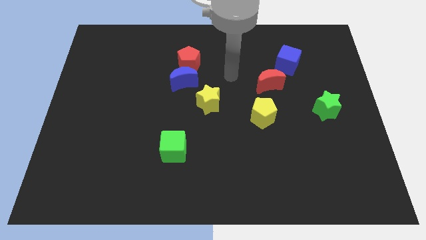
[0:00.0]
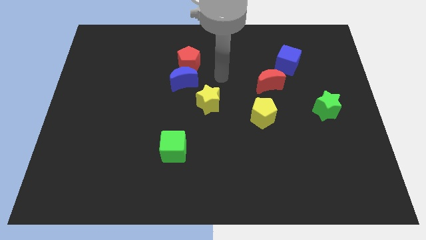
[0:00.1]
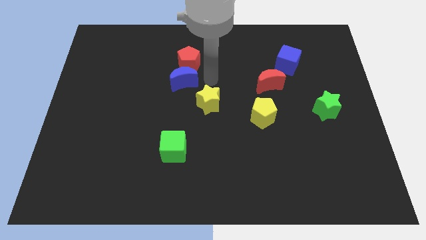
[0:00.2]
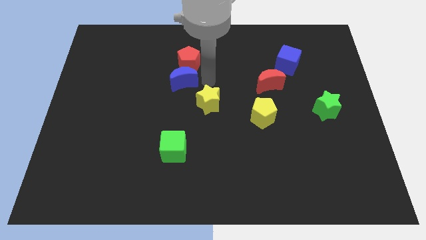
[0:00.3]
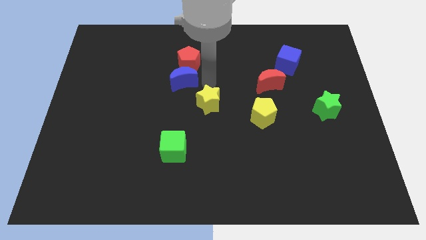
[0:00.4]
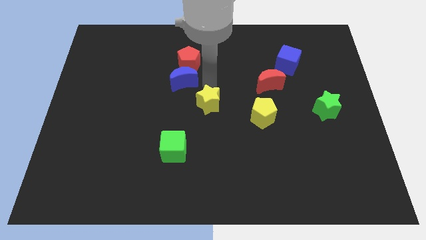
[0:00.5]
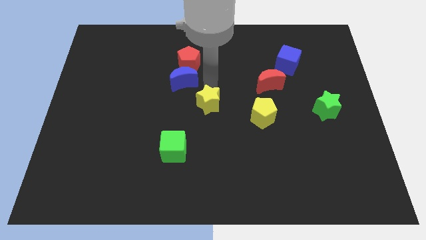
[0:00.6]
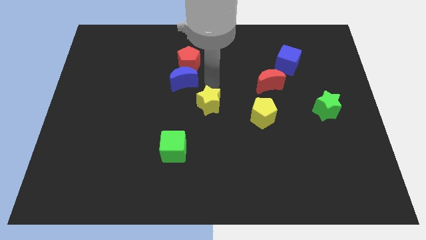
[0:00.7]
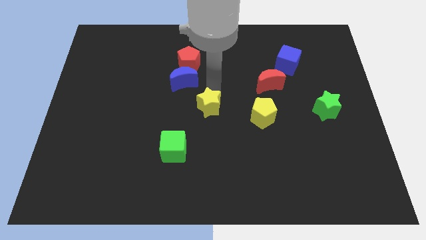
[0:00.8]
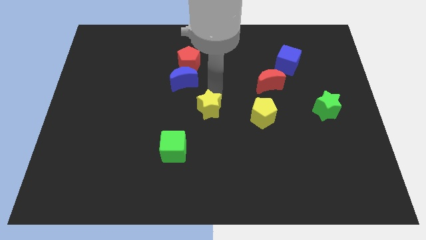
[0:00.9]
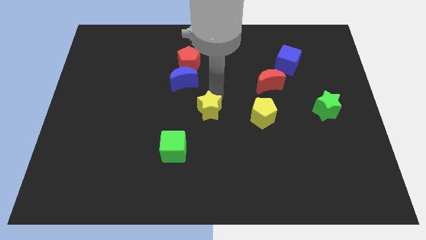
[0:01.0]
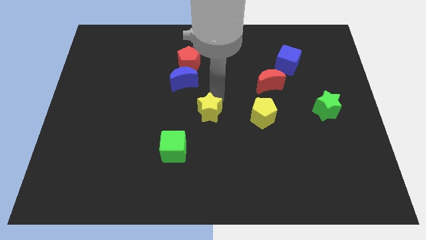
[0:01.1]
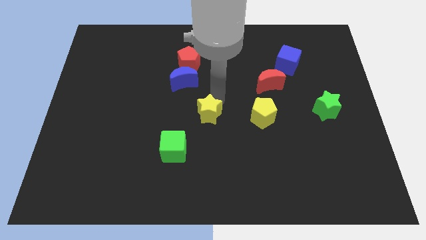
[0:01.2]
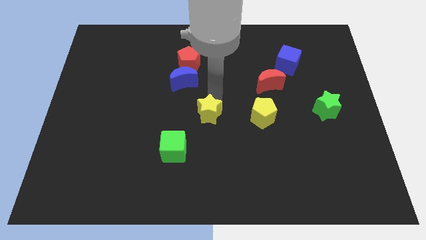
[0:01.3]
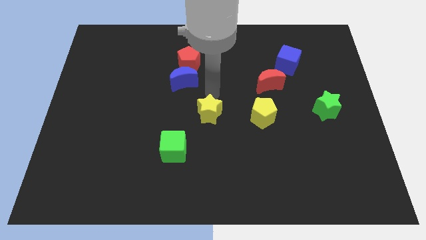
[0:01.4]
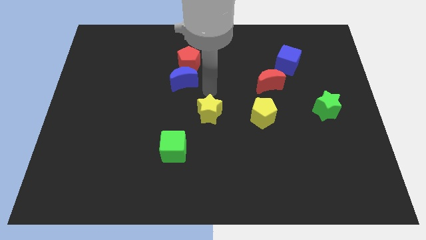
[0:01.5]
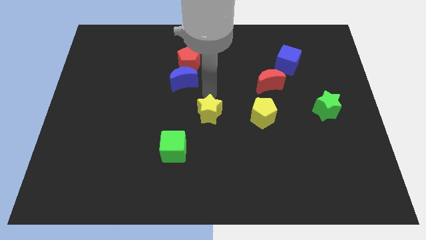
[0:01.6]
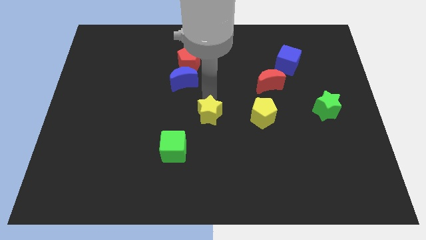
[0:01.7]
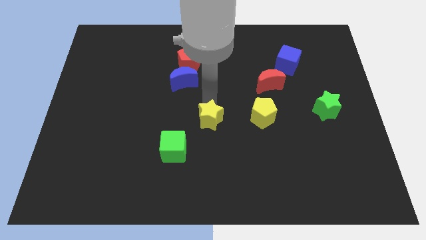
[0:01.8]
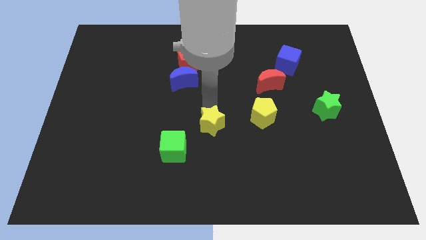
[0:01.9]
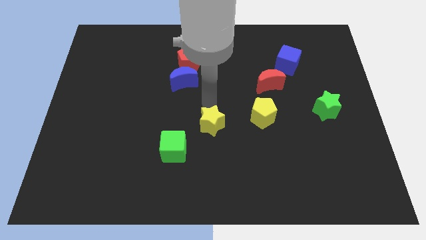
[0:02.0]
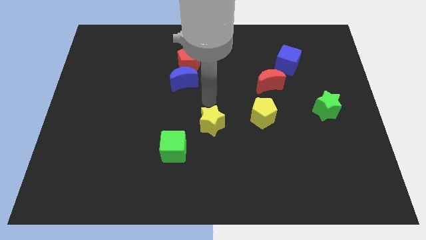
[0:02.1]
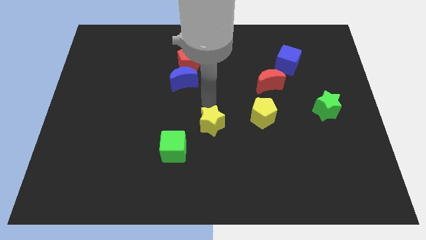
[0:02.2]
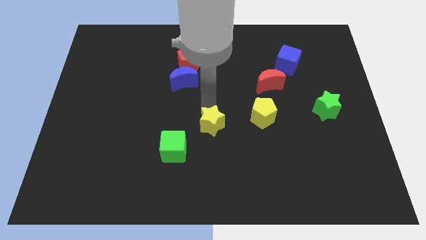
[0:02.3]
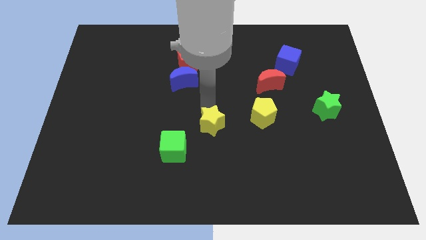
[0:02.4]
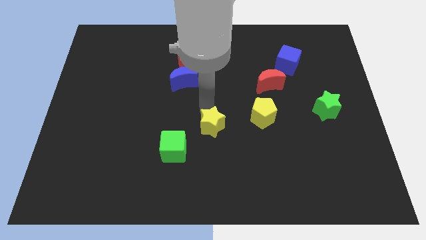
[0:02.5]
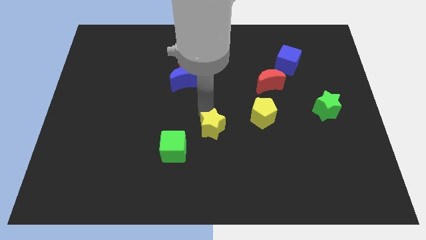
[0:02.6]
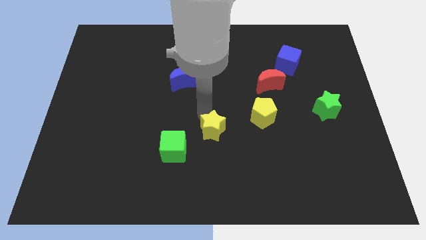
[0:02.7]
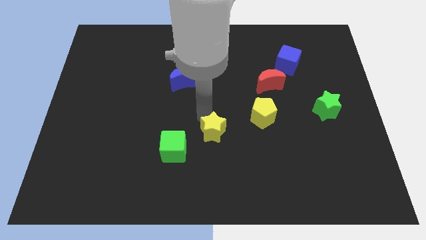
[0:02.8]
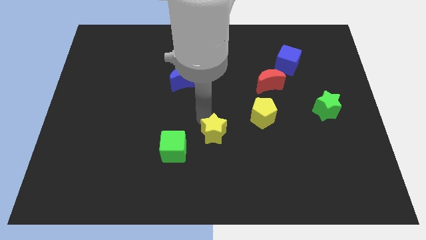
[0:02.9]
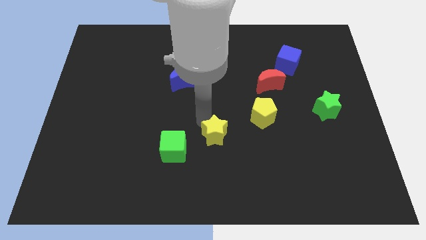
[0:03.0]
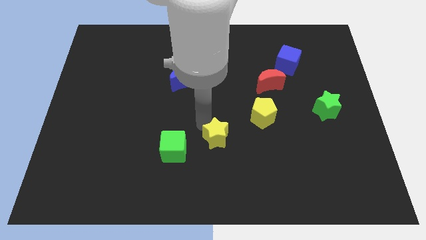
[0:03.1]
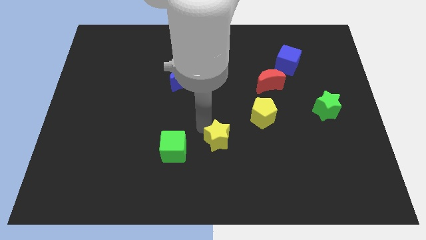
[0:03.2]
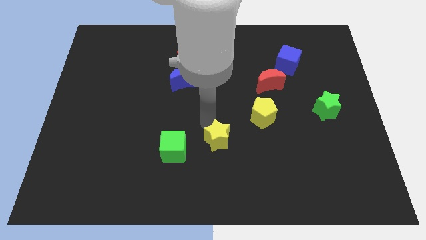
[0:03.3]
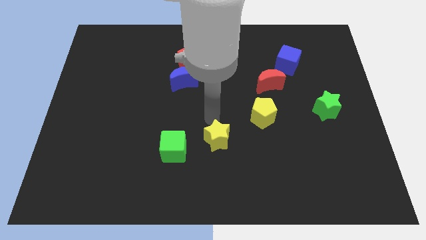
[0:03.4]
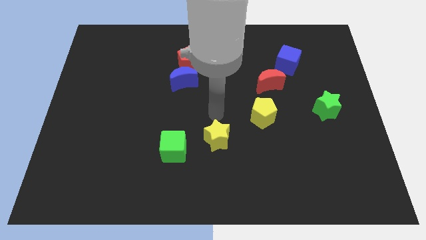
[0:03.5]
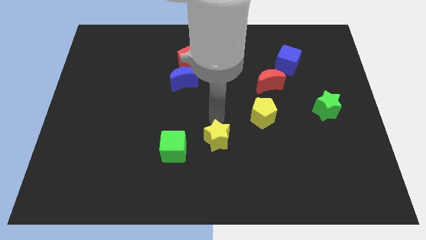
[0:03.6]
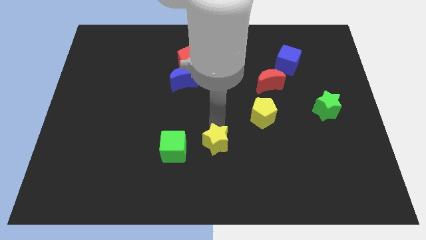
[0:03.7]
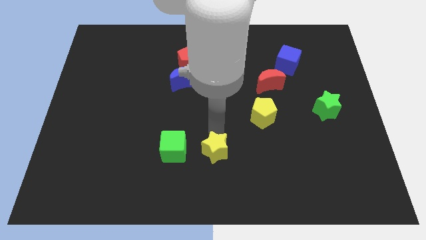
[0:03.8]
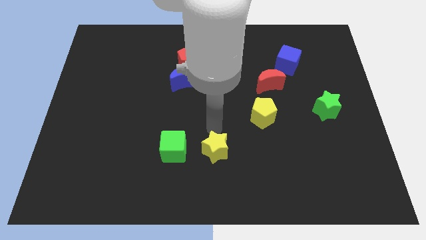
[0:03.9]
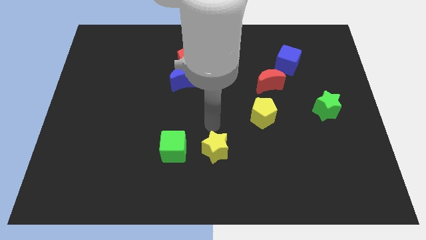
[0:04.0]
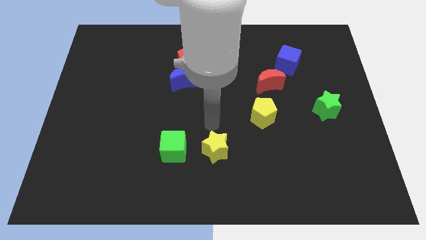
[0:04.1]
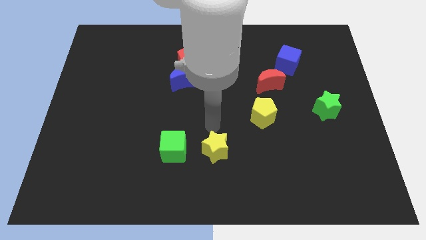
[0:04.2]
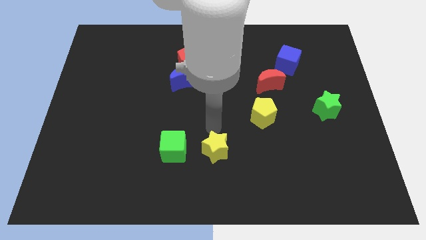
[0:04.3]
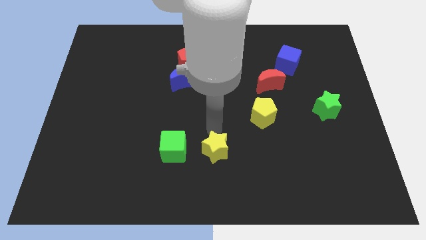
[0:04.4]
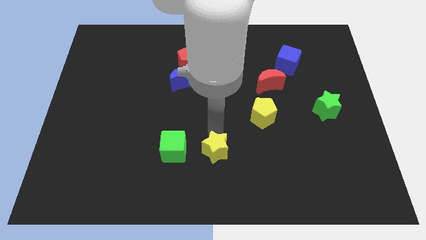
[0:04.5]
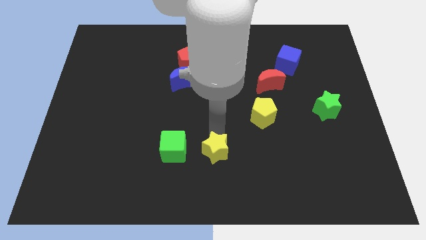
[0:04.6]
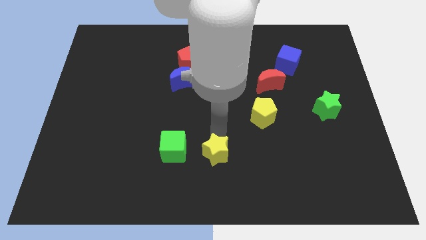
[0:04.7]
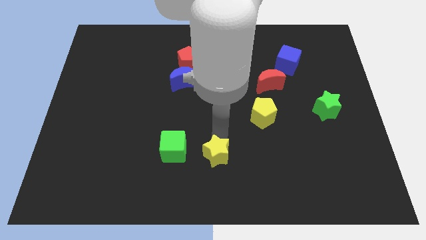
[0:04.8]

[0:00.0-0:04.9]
push the yellow star to the bottom side

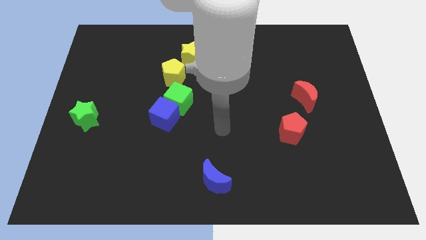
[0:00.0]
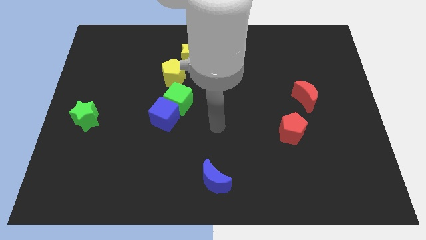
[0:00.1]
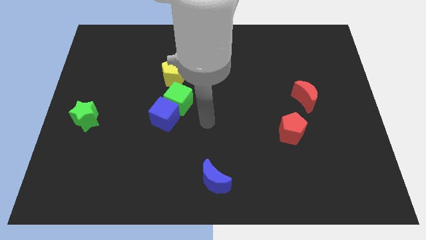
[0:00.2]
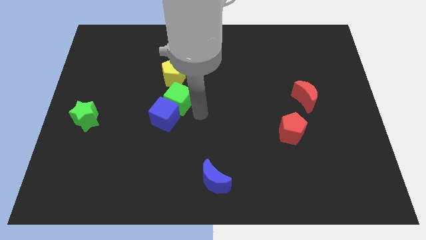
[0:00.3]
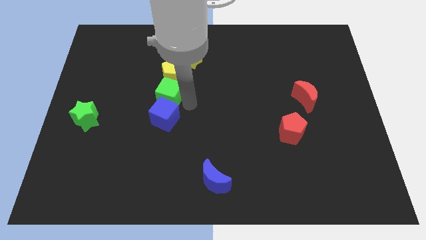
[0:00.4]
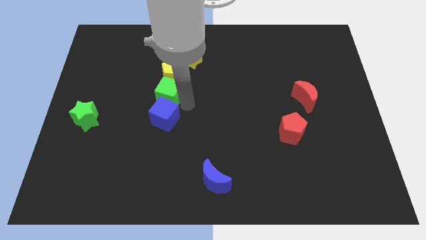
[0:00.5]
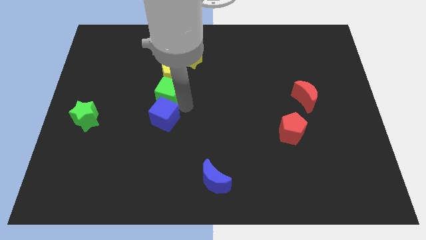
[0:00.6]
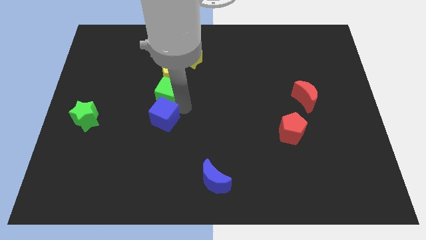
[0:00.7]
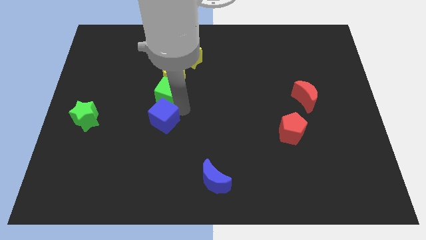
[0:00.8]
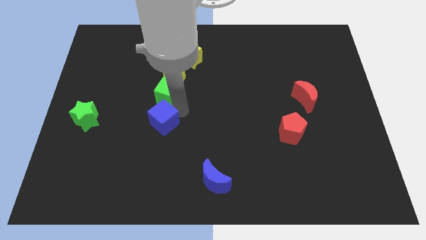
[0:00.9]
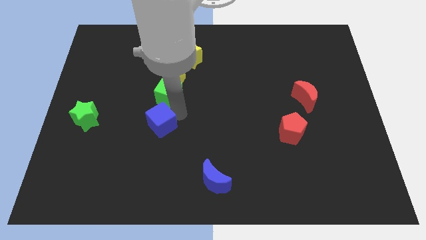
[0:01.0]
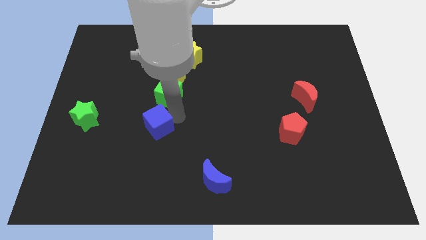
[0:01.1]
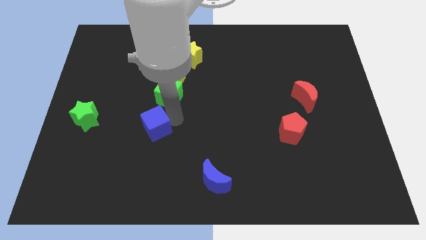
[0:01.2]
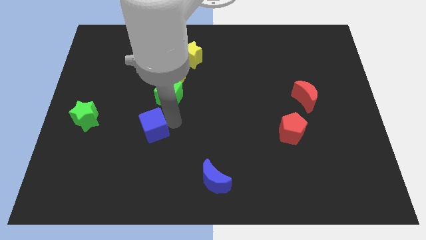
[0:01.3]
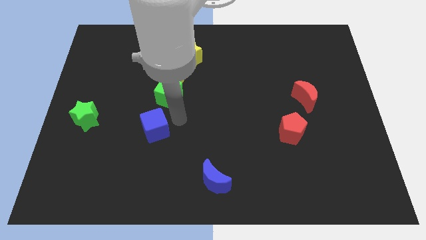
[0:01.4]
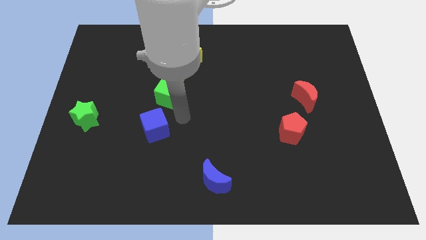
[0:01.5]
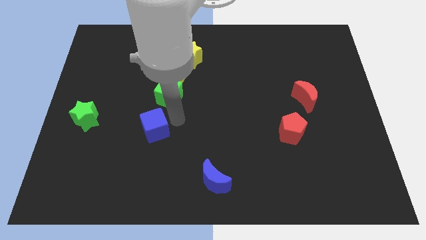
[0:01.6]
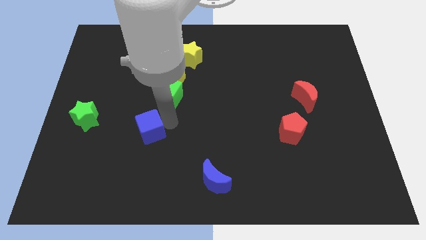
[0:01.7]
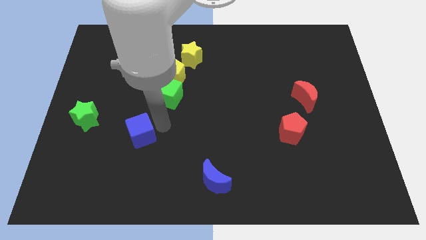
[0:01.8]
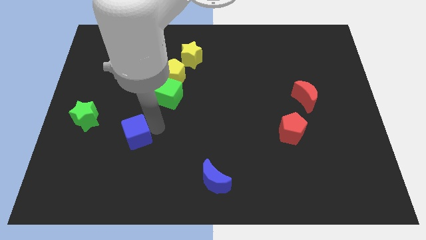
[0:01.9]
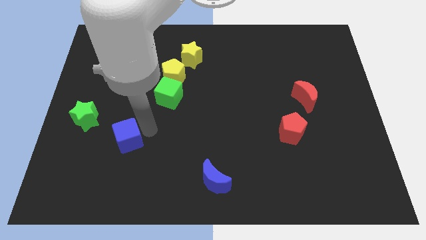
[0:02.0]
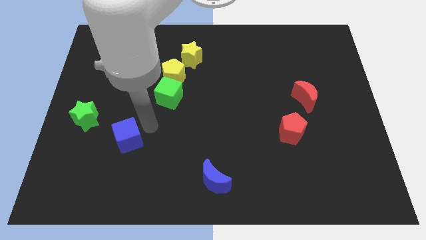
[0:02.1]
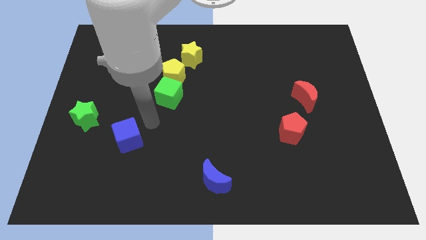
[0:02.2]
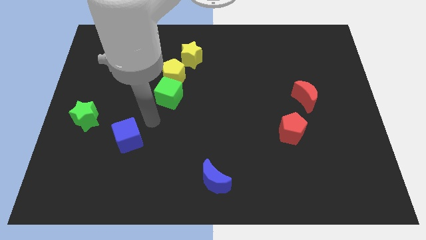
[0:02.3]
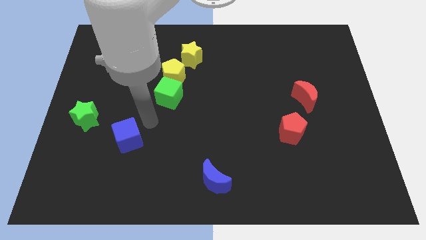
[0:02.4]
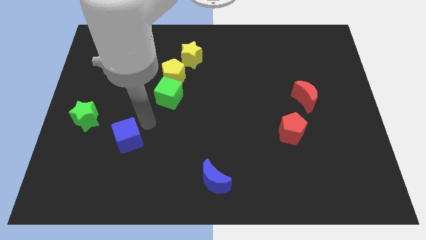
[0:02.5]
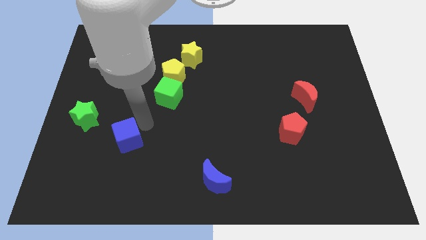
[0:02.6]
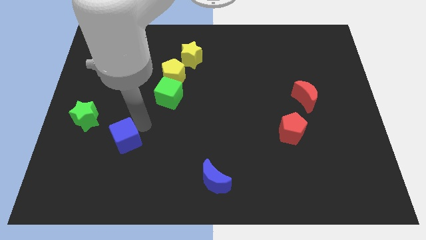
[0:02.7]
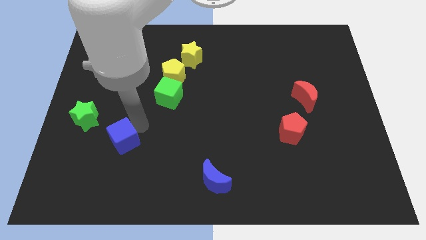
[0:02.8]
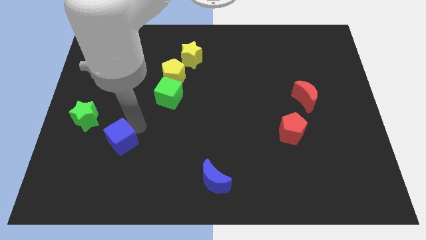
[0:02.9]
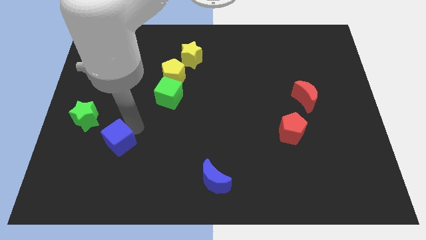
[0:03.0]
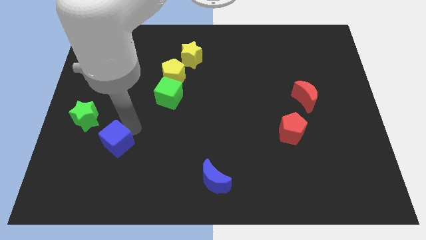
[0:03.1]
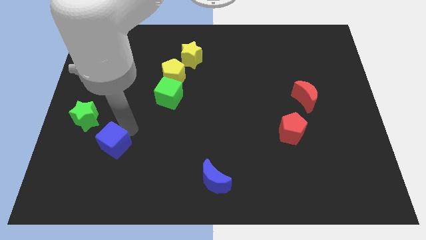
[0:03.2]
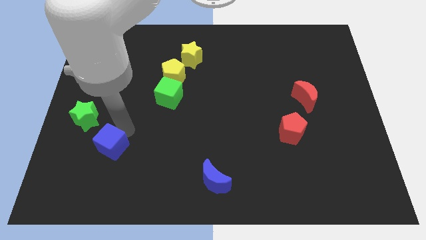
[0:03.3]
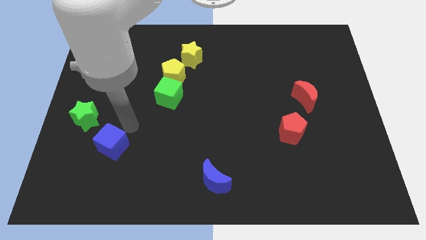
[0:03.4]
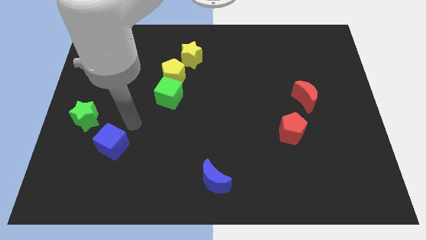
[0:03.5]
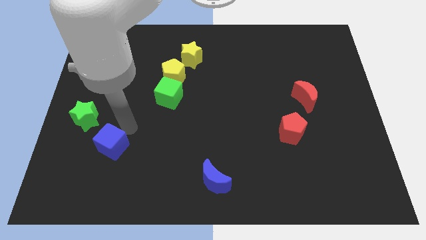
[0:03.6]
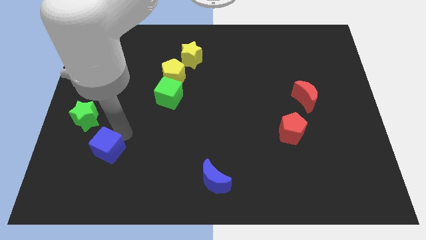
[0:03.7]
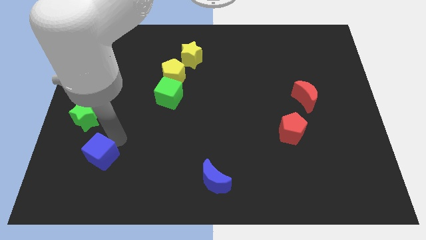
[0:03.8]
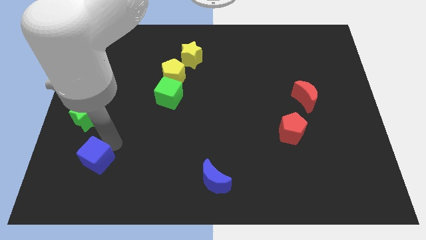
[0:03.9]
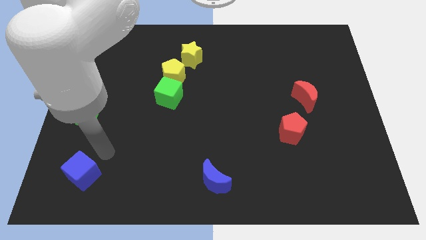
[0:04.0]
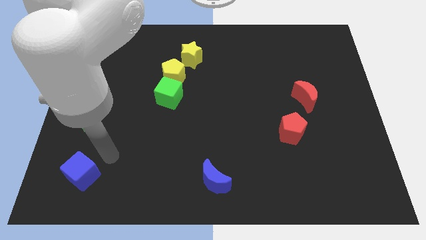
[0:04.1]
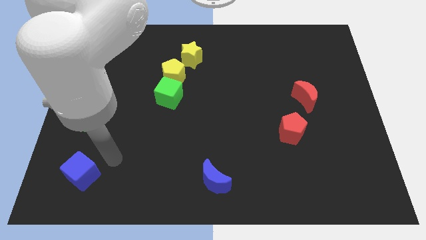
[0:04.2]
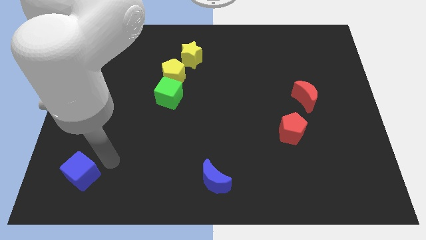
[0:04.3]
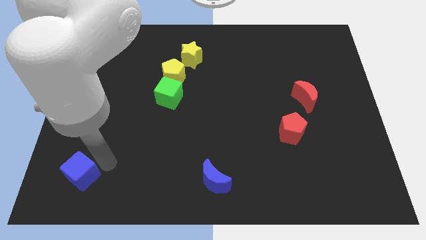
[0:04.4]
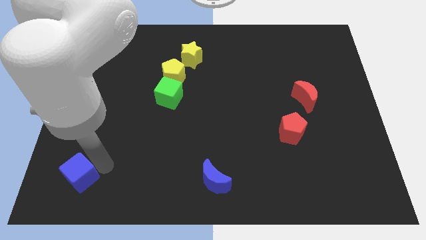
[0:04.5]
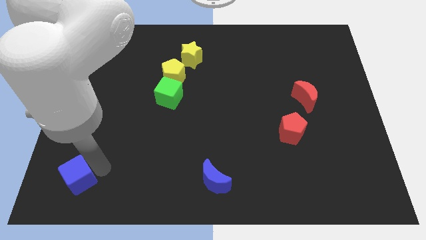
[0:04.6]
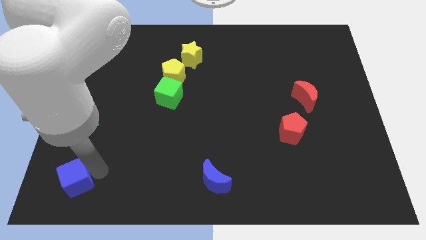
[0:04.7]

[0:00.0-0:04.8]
push the blue cube to the bottom left corner
